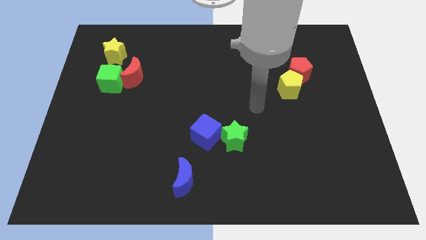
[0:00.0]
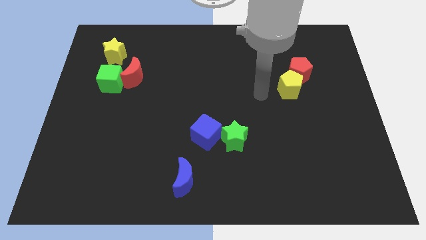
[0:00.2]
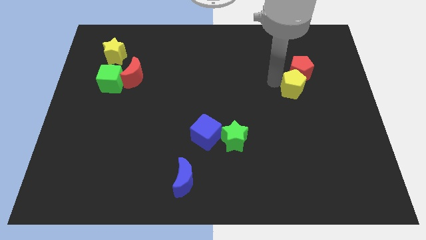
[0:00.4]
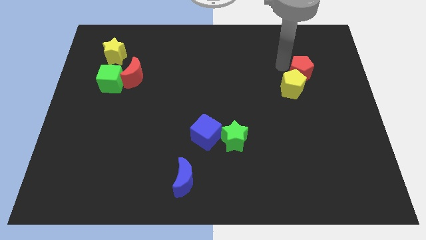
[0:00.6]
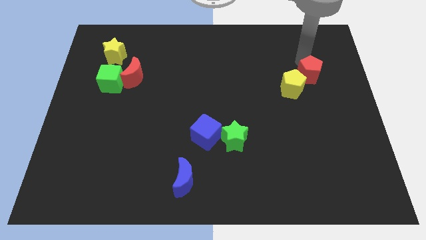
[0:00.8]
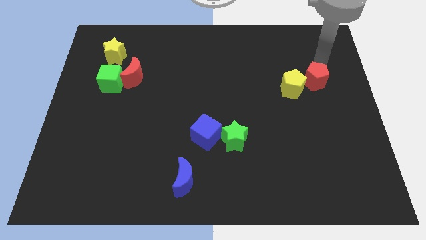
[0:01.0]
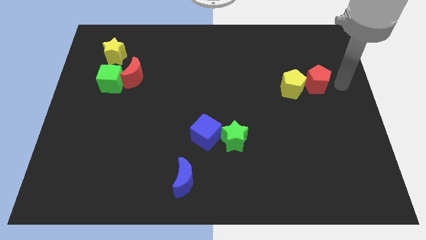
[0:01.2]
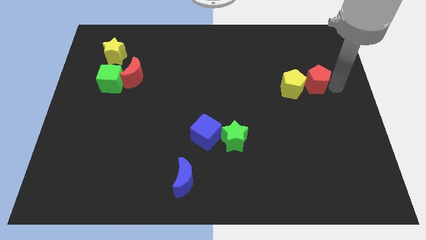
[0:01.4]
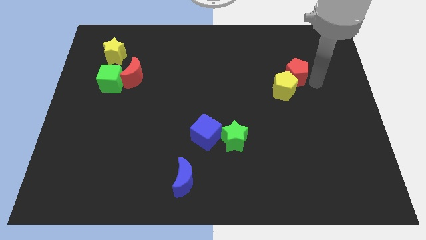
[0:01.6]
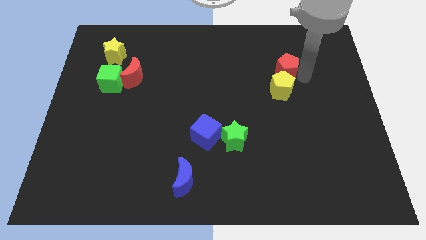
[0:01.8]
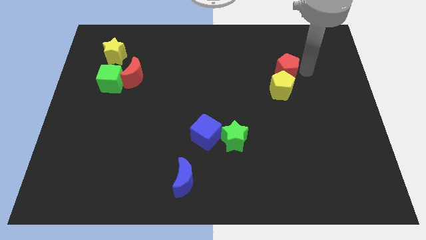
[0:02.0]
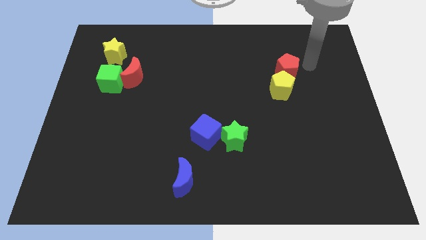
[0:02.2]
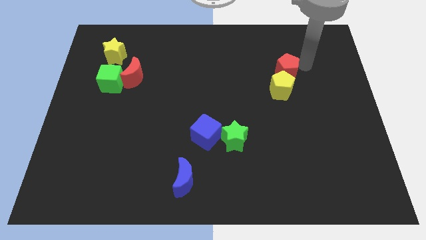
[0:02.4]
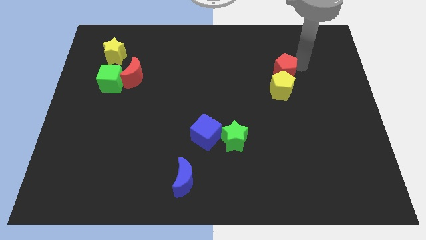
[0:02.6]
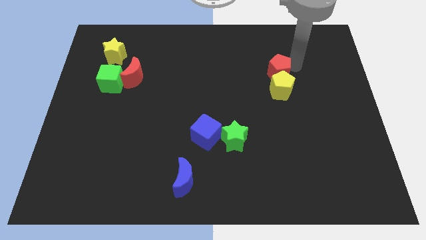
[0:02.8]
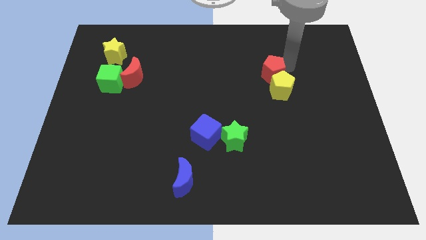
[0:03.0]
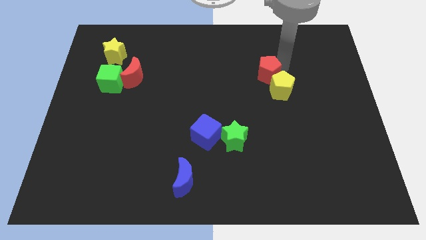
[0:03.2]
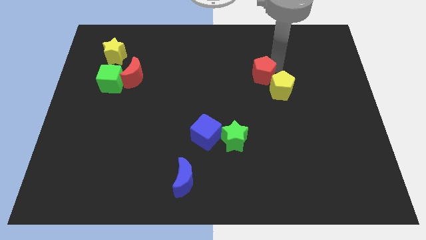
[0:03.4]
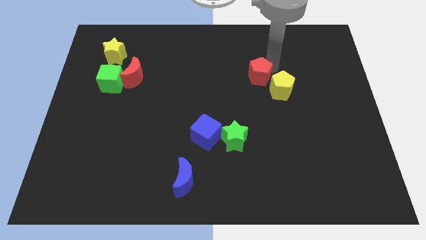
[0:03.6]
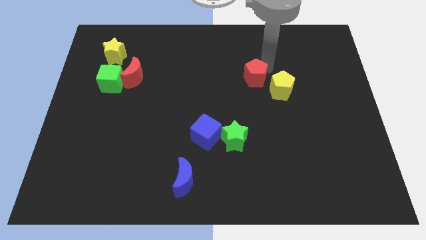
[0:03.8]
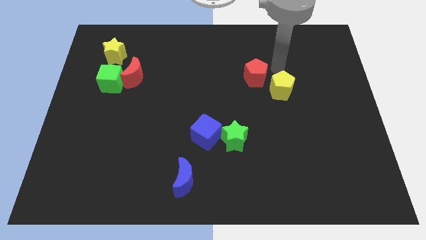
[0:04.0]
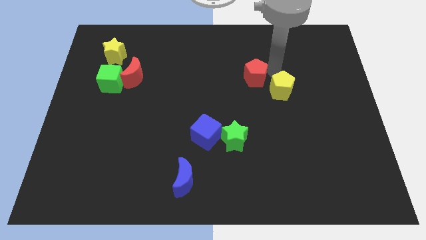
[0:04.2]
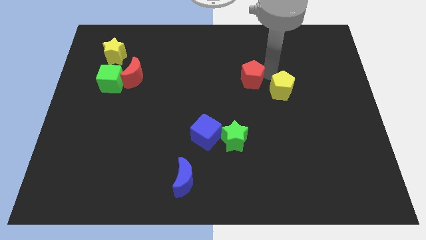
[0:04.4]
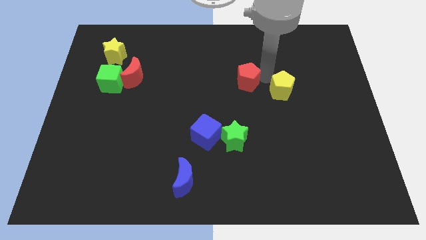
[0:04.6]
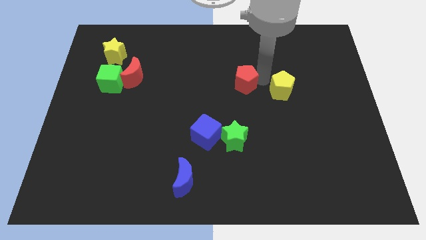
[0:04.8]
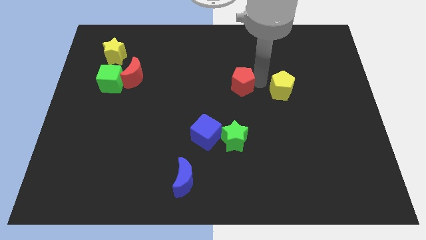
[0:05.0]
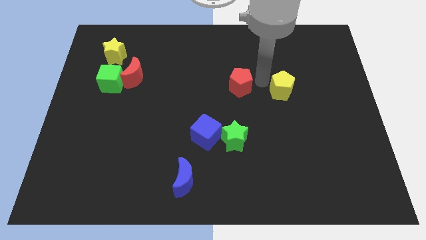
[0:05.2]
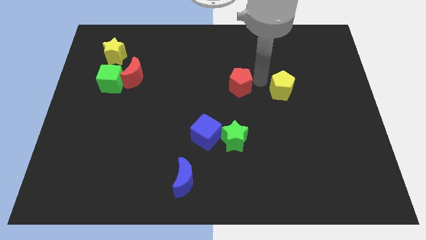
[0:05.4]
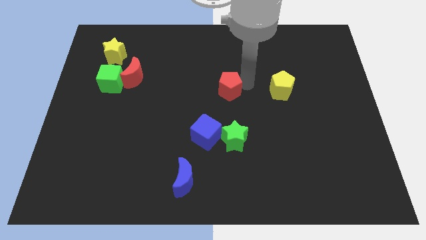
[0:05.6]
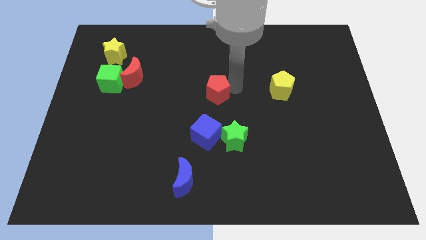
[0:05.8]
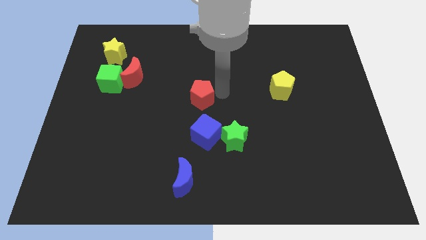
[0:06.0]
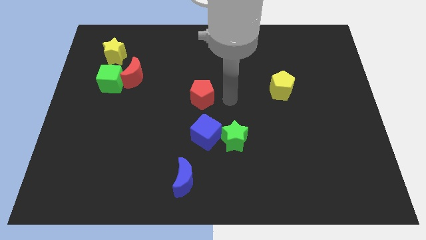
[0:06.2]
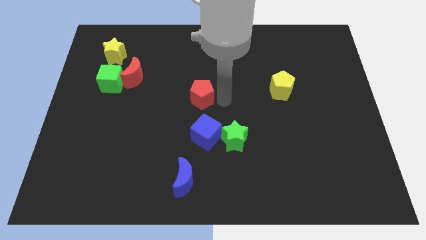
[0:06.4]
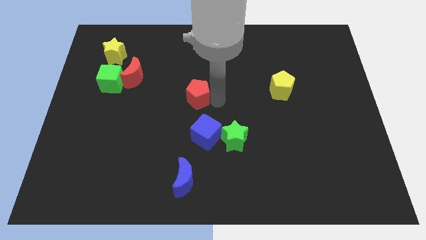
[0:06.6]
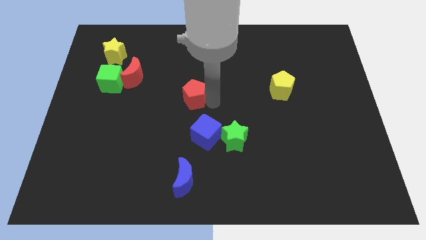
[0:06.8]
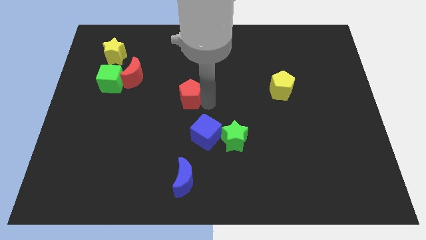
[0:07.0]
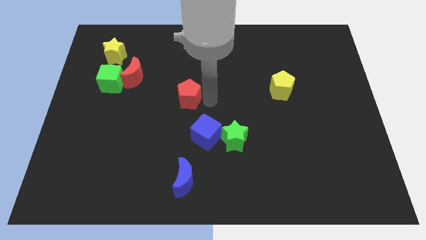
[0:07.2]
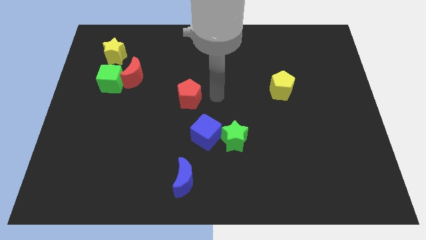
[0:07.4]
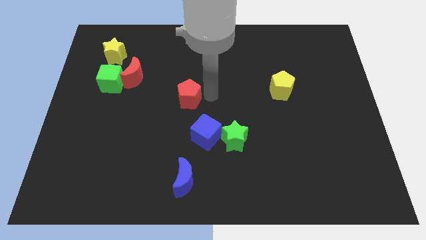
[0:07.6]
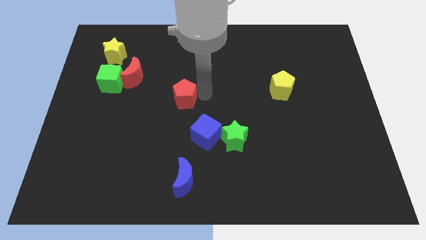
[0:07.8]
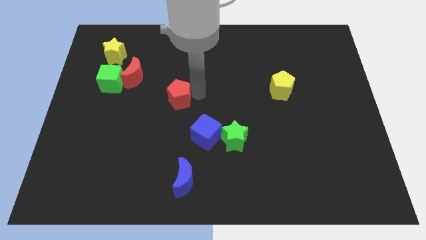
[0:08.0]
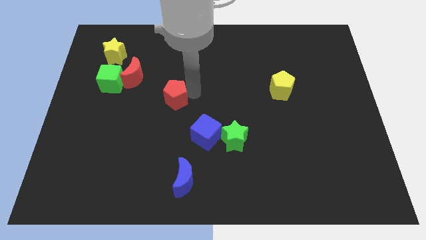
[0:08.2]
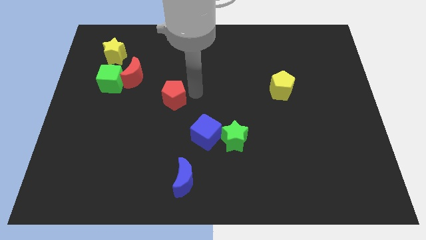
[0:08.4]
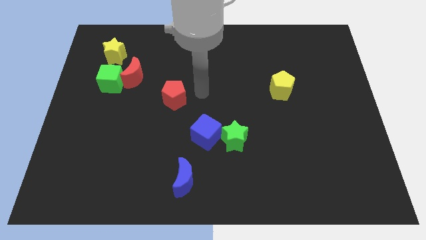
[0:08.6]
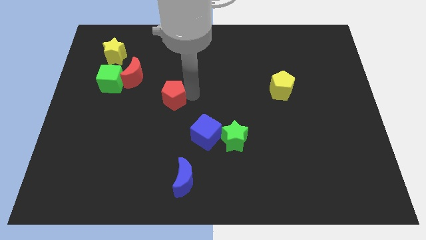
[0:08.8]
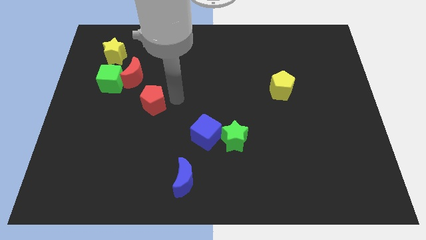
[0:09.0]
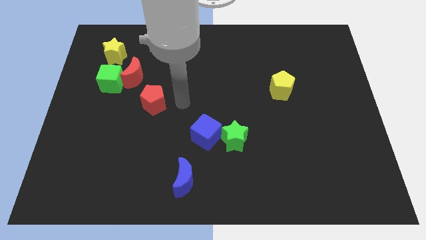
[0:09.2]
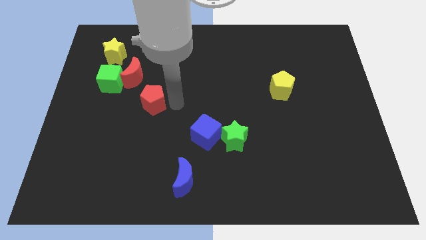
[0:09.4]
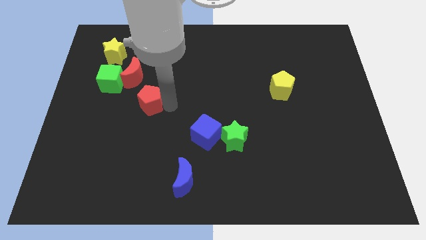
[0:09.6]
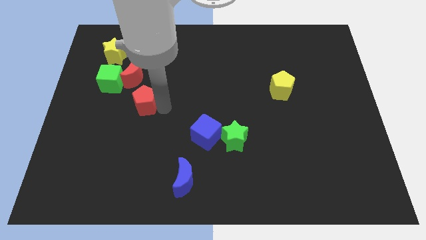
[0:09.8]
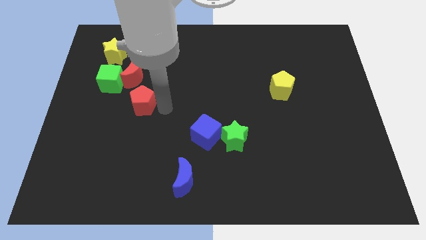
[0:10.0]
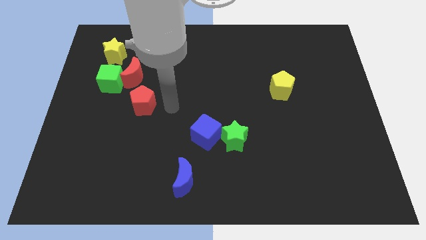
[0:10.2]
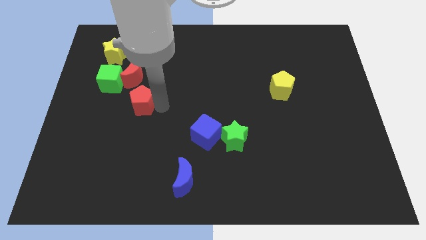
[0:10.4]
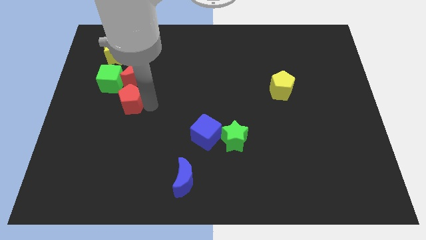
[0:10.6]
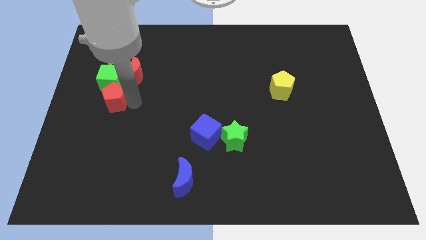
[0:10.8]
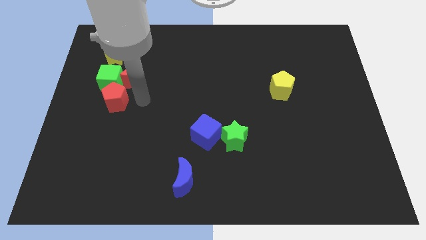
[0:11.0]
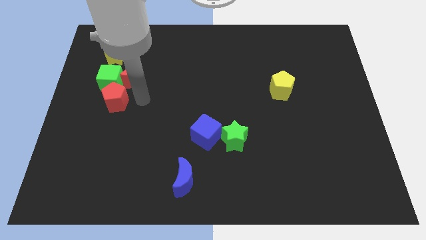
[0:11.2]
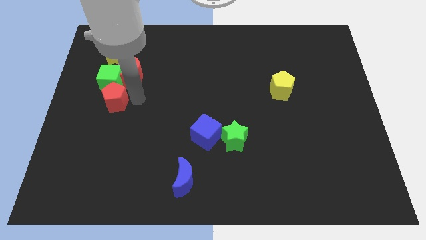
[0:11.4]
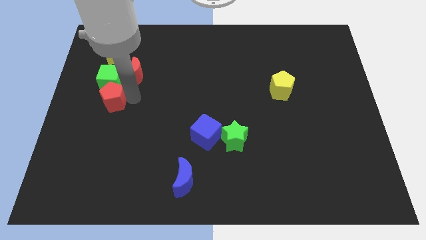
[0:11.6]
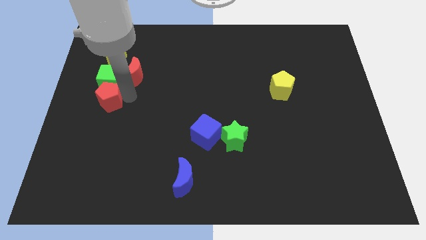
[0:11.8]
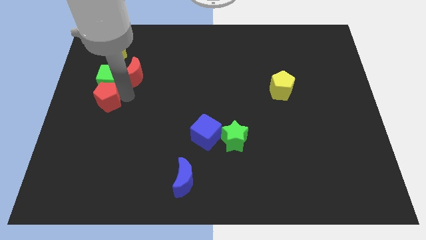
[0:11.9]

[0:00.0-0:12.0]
slide the red pentagon to the left side
